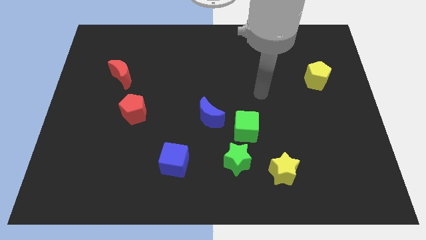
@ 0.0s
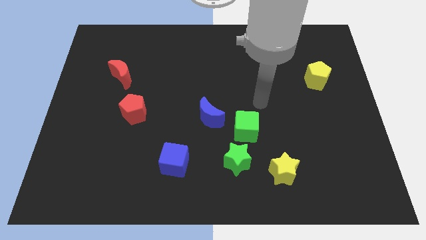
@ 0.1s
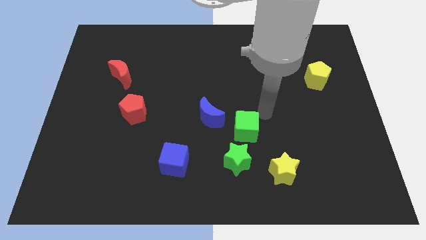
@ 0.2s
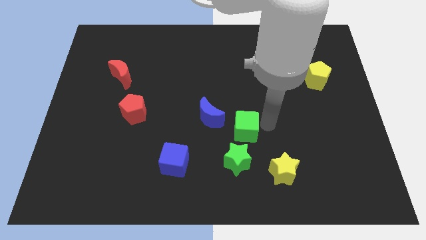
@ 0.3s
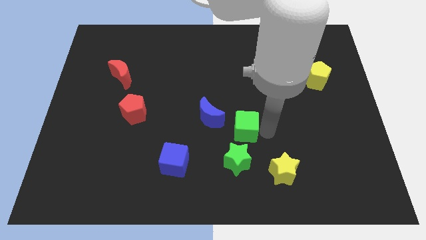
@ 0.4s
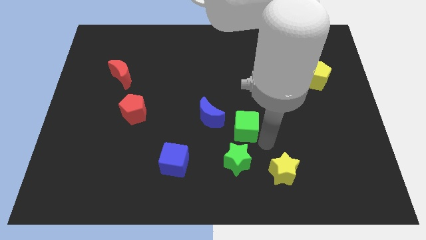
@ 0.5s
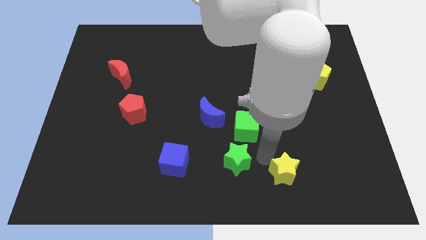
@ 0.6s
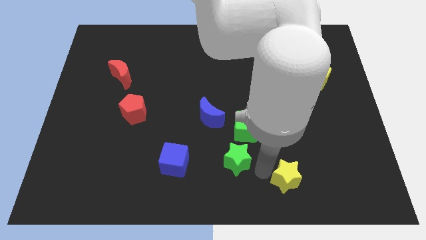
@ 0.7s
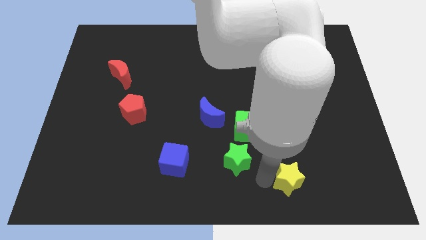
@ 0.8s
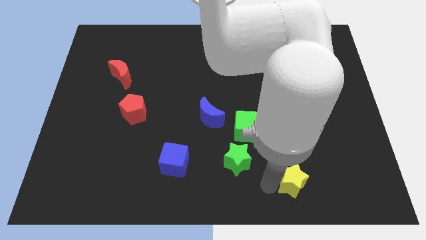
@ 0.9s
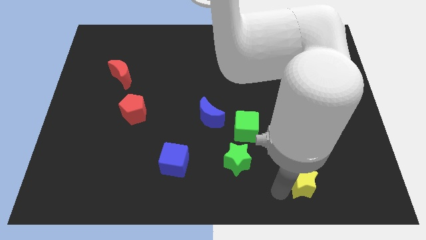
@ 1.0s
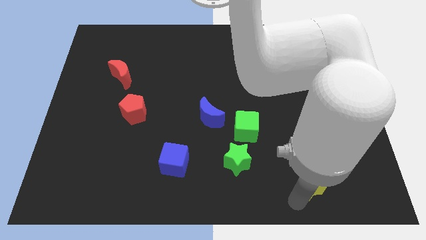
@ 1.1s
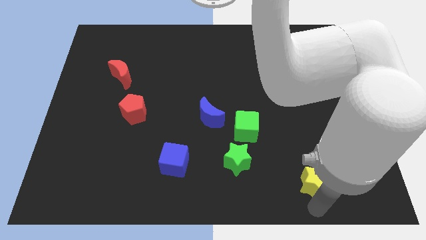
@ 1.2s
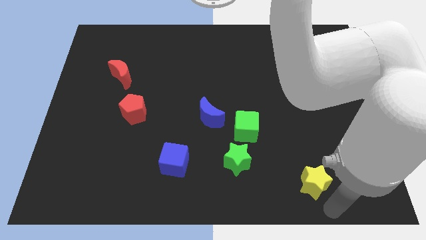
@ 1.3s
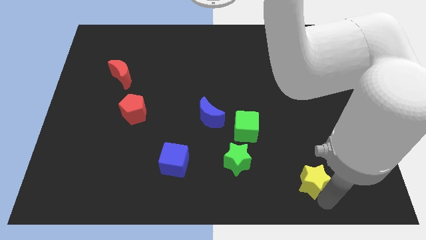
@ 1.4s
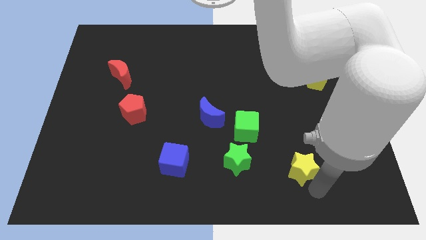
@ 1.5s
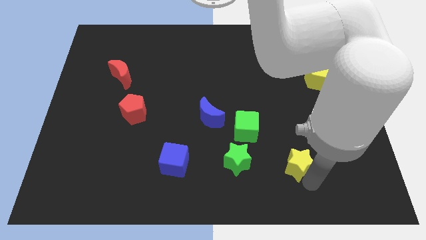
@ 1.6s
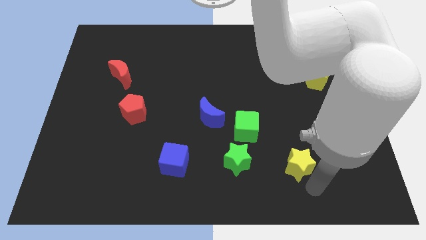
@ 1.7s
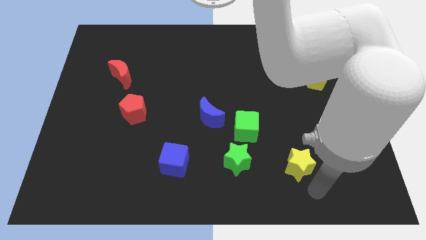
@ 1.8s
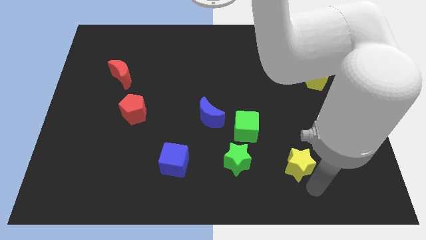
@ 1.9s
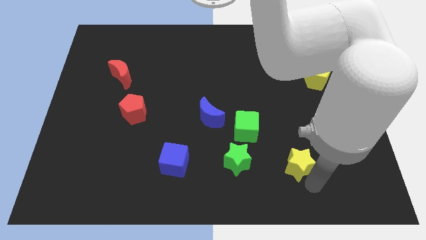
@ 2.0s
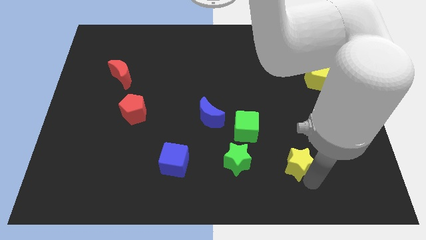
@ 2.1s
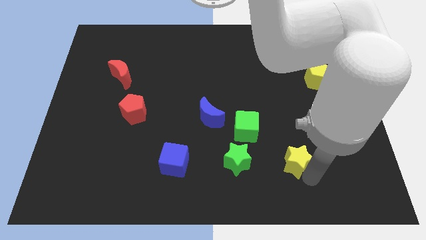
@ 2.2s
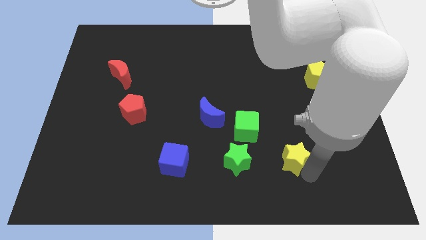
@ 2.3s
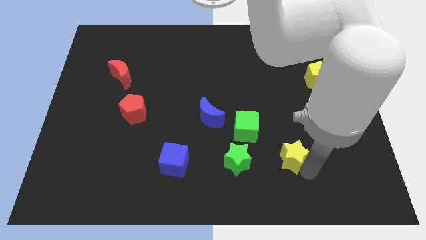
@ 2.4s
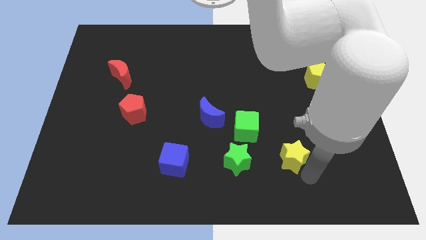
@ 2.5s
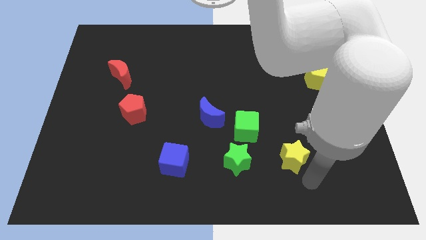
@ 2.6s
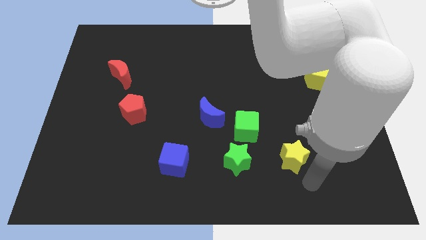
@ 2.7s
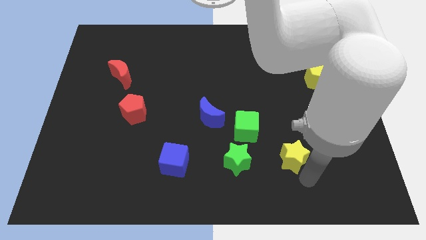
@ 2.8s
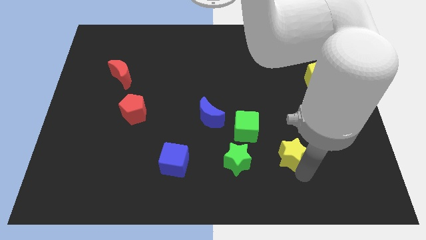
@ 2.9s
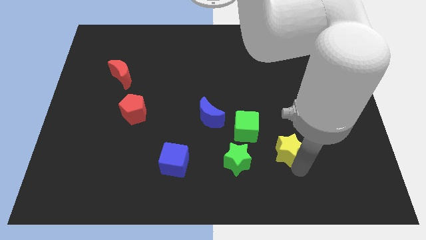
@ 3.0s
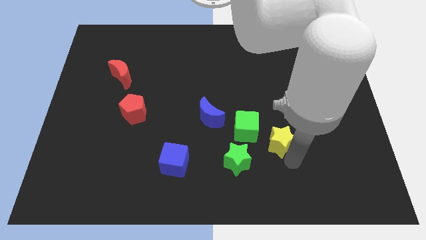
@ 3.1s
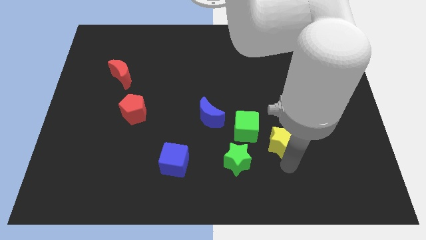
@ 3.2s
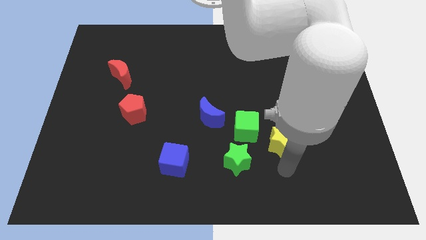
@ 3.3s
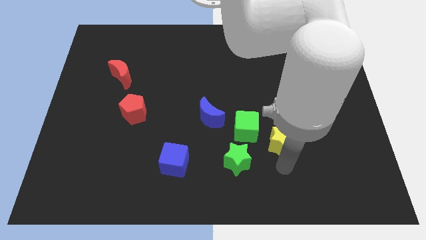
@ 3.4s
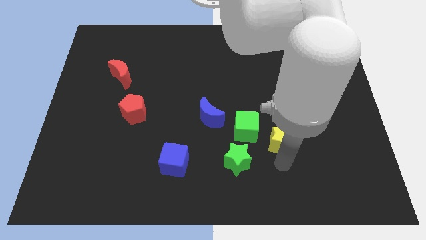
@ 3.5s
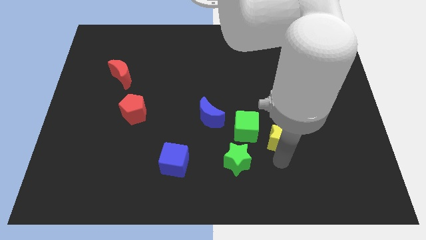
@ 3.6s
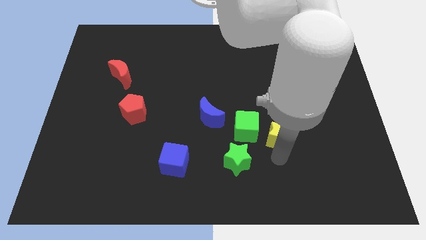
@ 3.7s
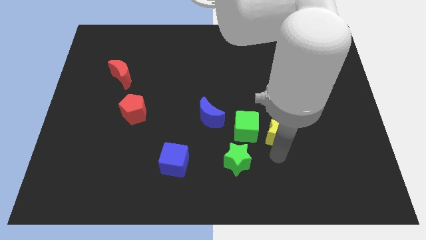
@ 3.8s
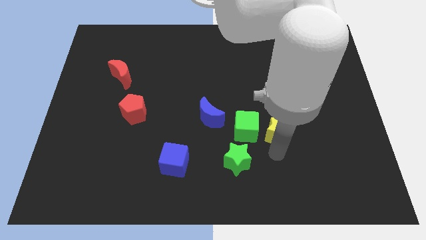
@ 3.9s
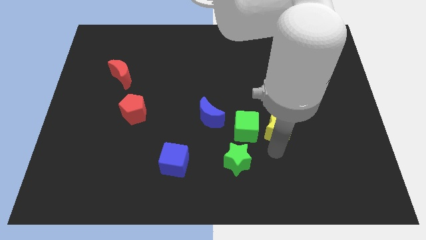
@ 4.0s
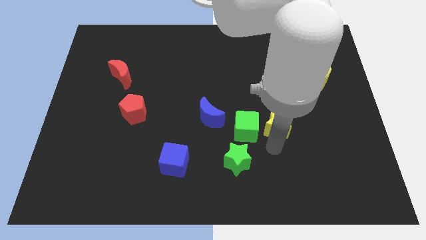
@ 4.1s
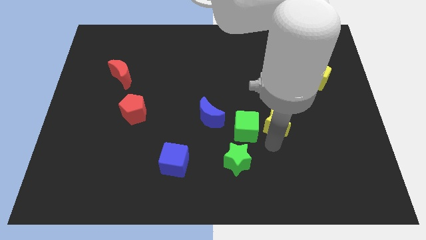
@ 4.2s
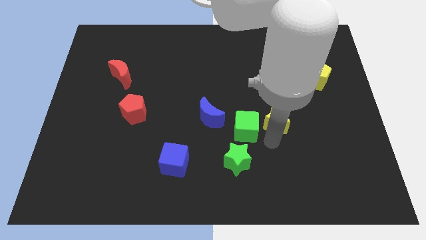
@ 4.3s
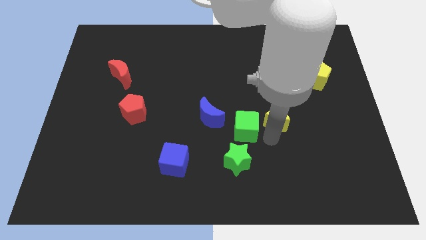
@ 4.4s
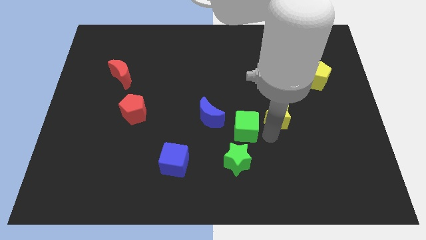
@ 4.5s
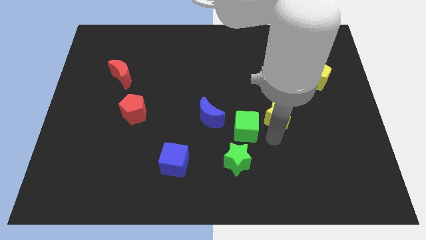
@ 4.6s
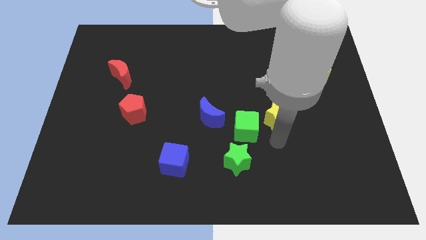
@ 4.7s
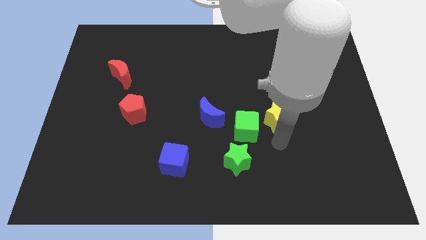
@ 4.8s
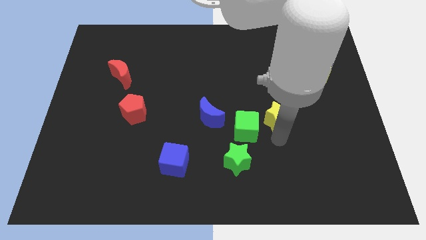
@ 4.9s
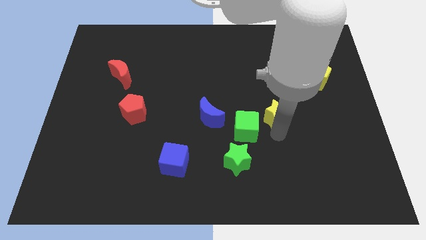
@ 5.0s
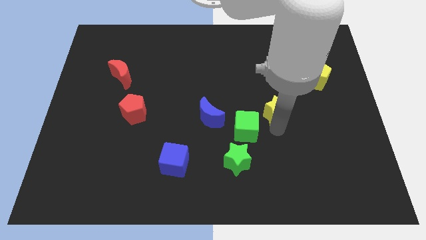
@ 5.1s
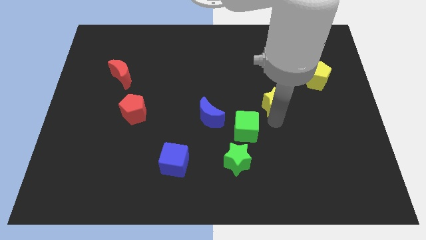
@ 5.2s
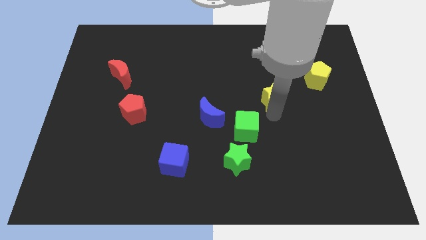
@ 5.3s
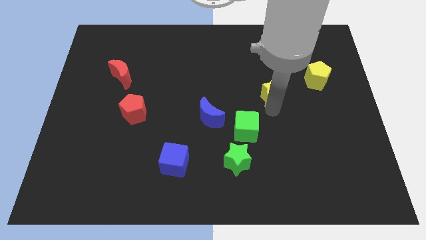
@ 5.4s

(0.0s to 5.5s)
slide the yellow star upwards

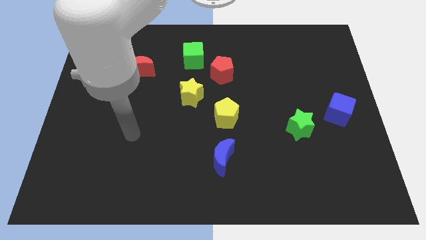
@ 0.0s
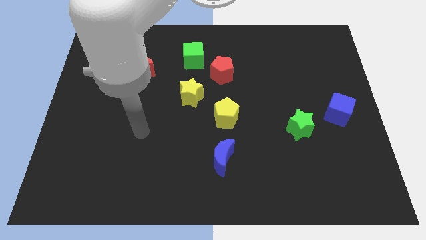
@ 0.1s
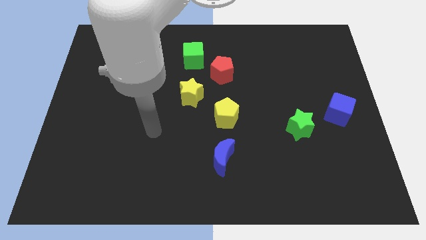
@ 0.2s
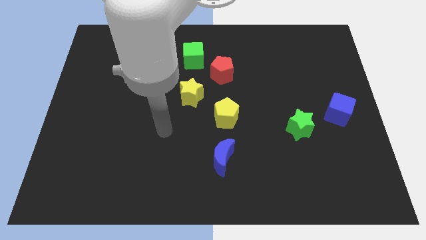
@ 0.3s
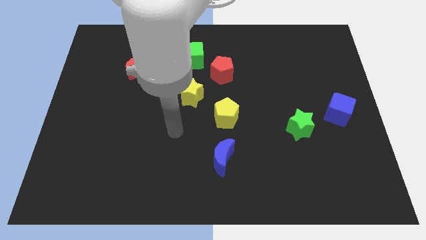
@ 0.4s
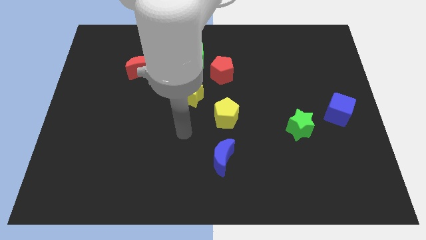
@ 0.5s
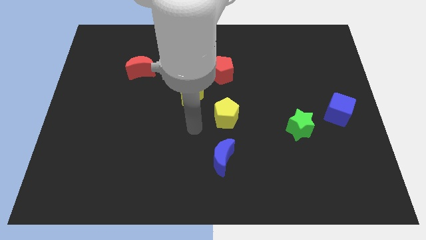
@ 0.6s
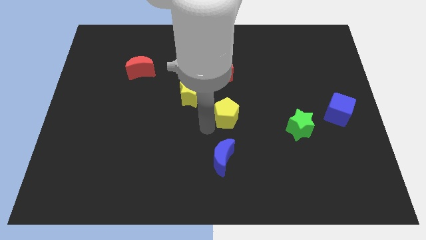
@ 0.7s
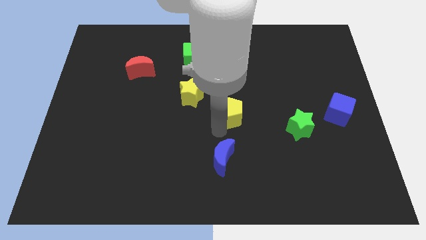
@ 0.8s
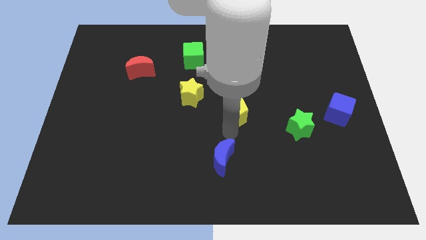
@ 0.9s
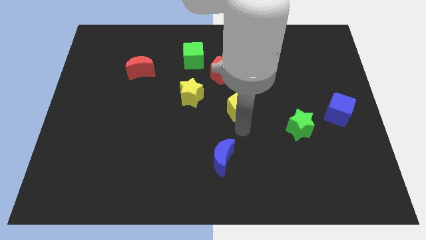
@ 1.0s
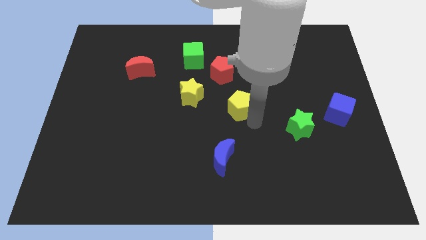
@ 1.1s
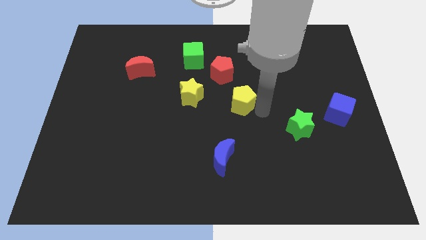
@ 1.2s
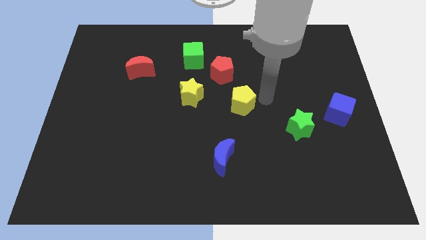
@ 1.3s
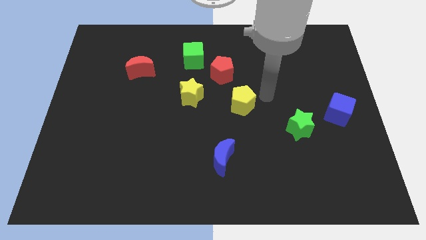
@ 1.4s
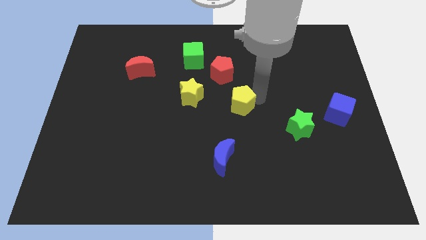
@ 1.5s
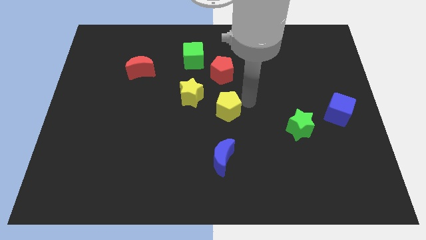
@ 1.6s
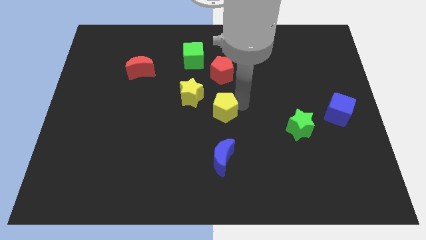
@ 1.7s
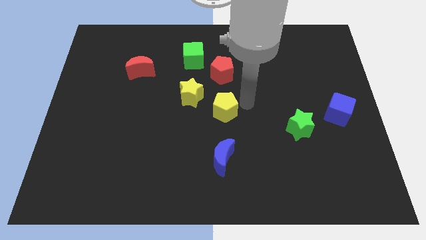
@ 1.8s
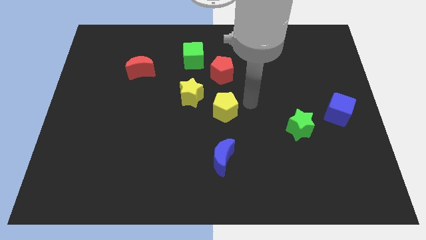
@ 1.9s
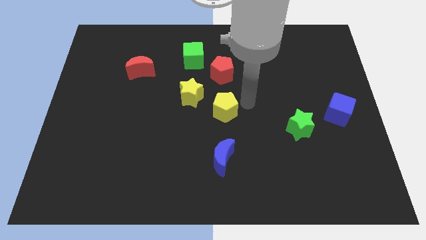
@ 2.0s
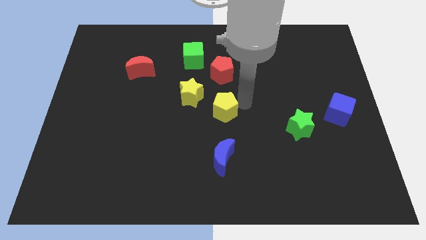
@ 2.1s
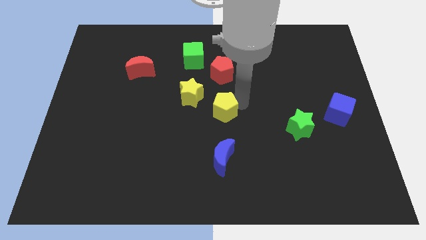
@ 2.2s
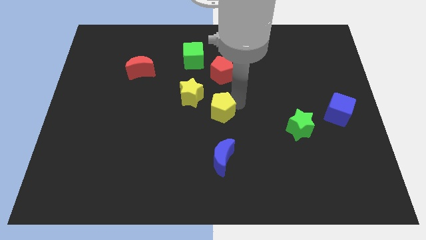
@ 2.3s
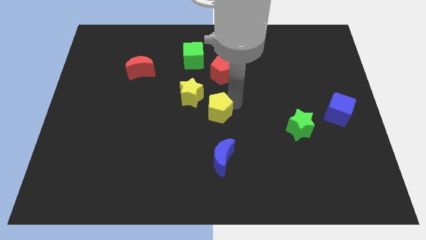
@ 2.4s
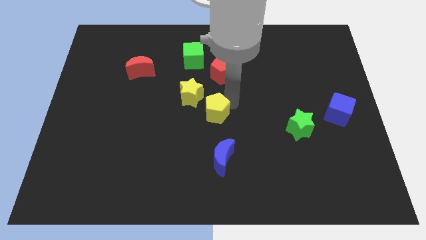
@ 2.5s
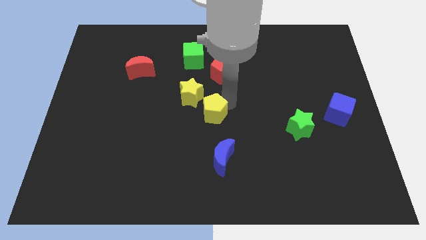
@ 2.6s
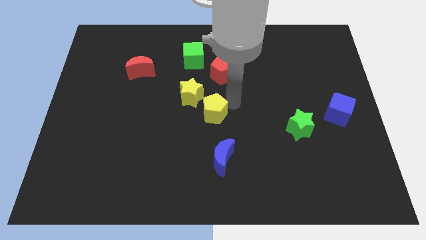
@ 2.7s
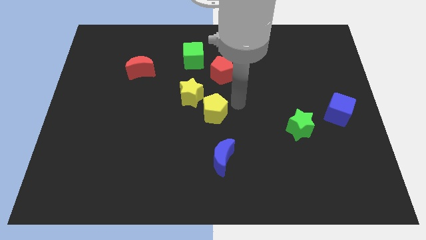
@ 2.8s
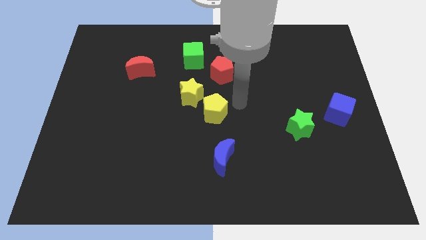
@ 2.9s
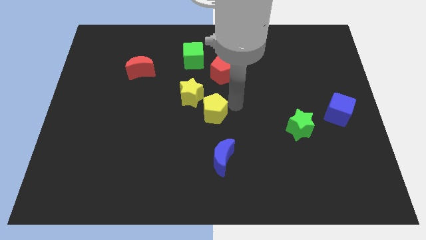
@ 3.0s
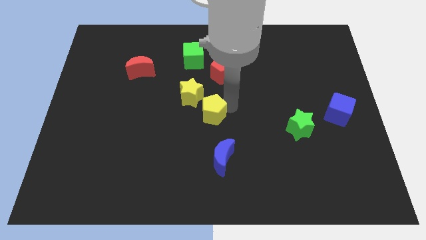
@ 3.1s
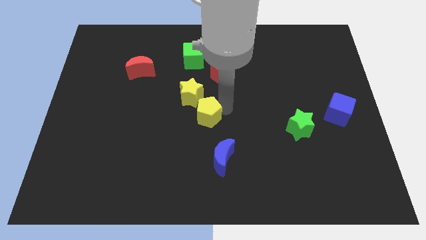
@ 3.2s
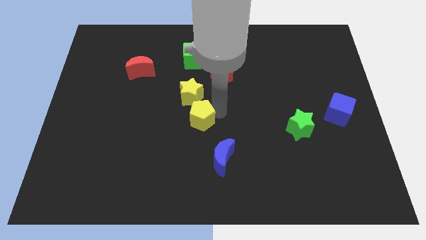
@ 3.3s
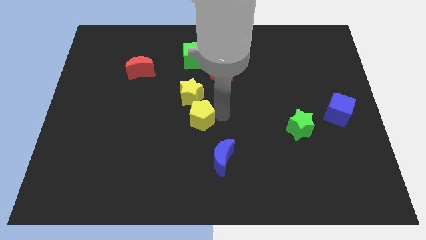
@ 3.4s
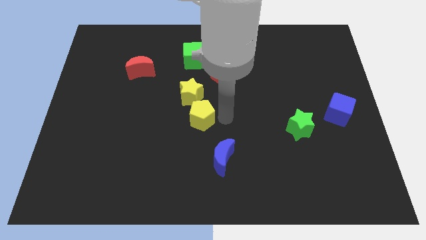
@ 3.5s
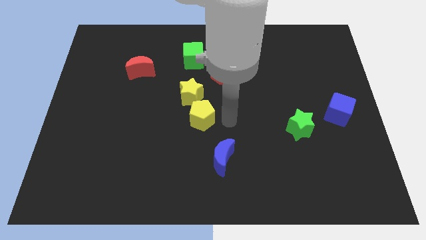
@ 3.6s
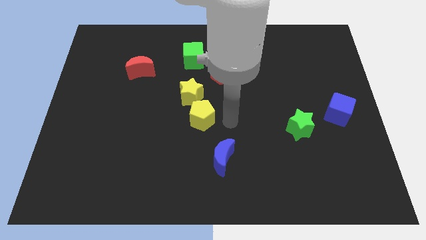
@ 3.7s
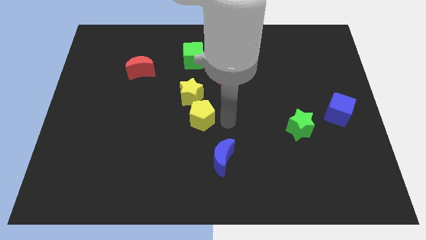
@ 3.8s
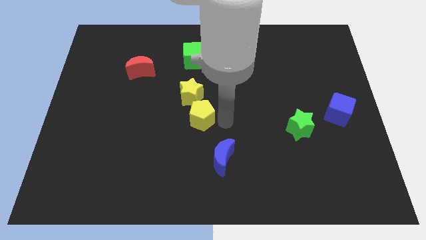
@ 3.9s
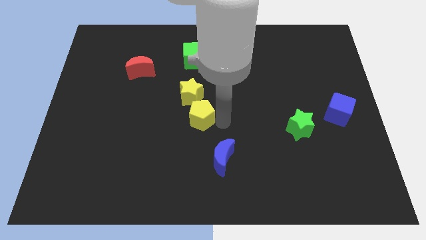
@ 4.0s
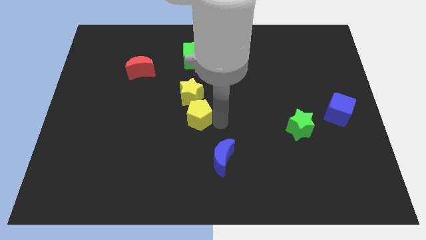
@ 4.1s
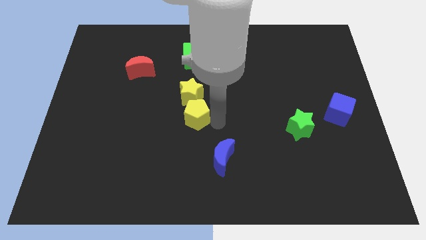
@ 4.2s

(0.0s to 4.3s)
push the yellow pentagon to the left a little bit
